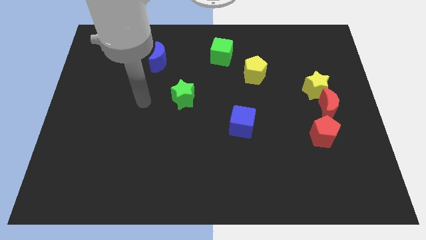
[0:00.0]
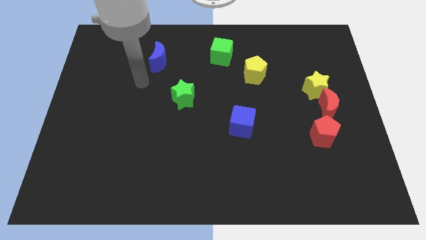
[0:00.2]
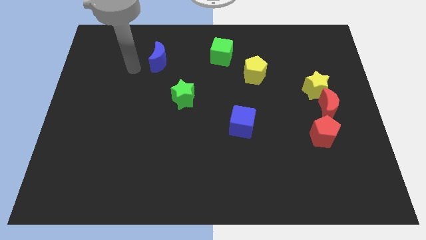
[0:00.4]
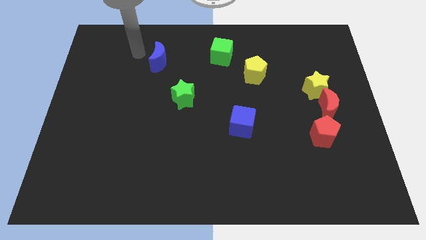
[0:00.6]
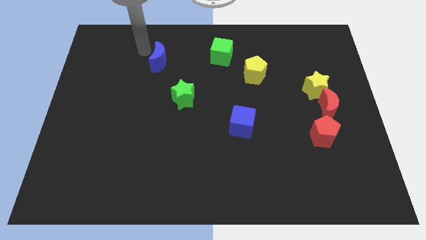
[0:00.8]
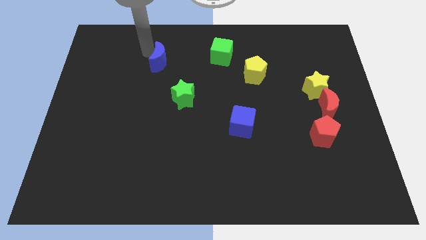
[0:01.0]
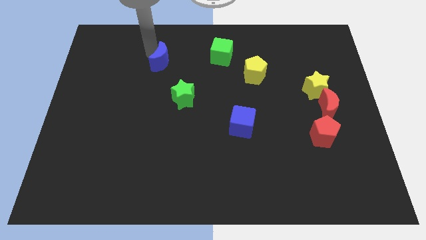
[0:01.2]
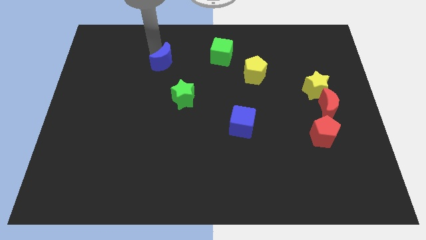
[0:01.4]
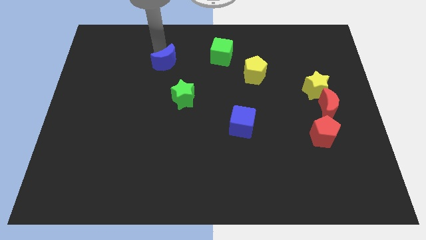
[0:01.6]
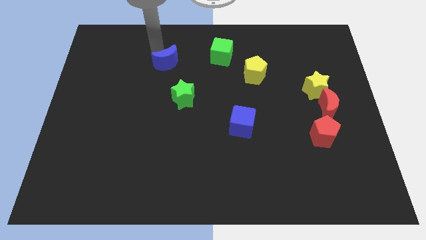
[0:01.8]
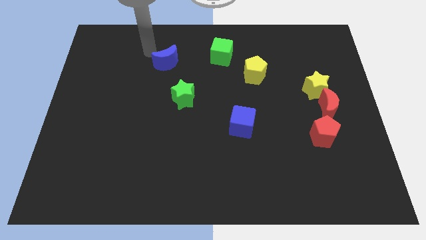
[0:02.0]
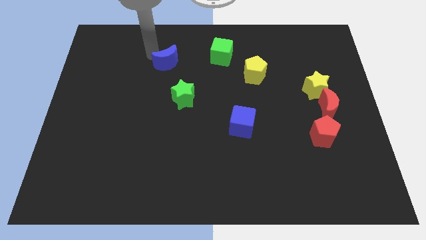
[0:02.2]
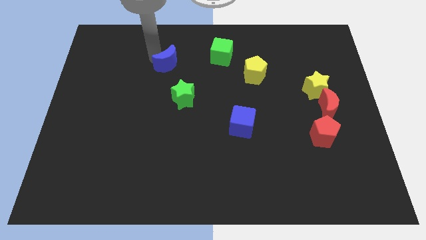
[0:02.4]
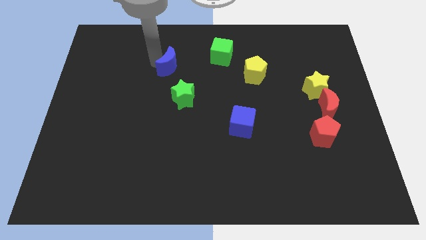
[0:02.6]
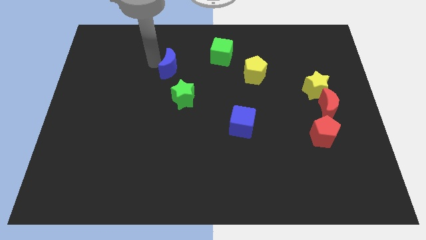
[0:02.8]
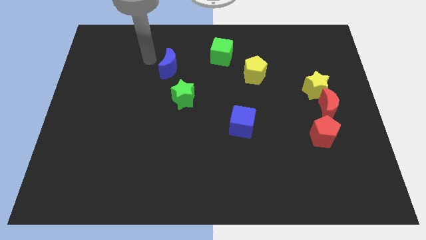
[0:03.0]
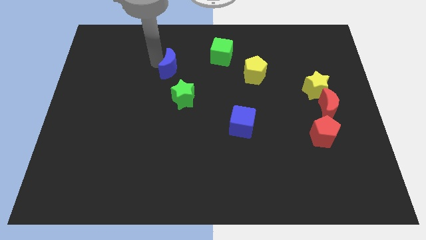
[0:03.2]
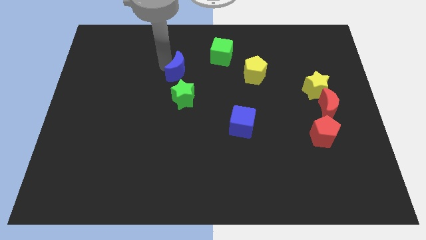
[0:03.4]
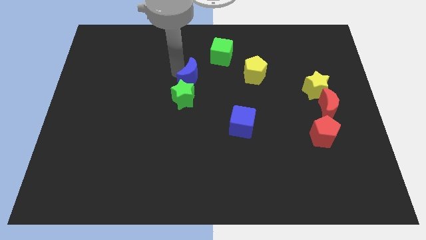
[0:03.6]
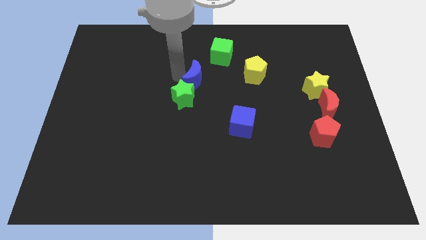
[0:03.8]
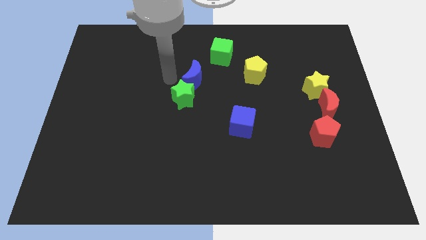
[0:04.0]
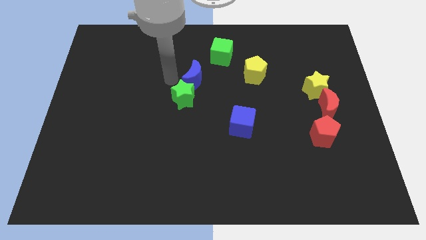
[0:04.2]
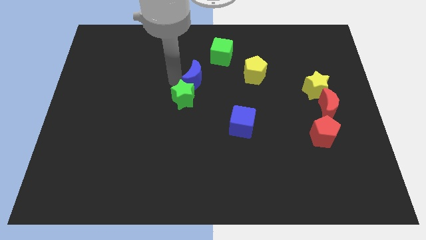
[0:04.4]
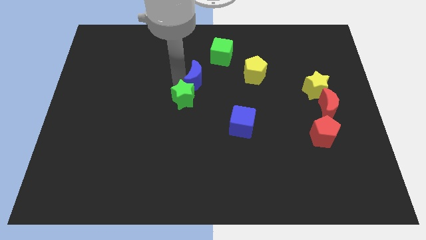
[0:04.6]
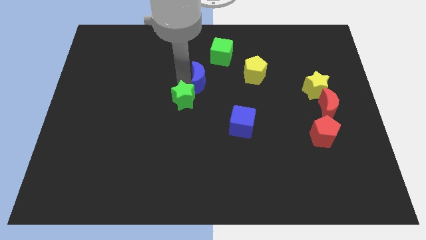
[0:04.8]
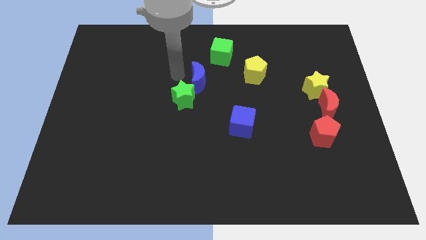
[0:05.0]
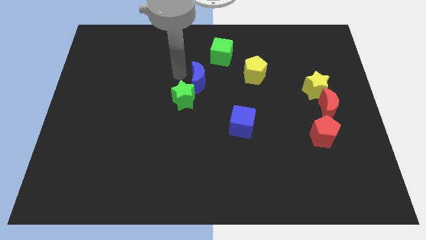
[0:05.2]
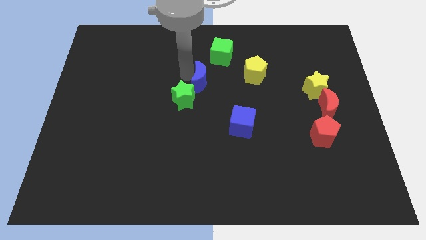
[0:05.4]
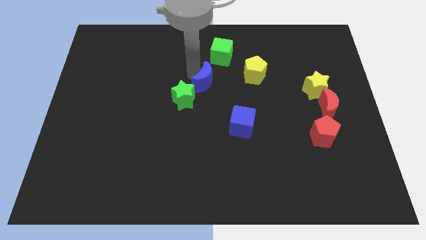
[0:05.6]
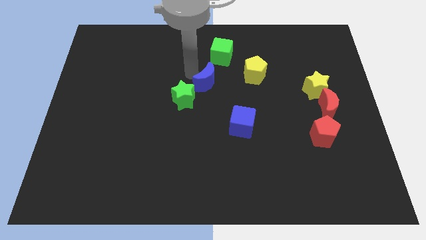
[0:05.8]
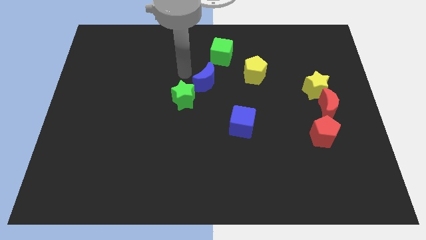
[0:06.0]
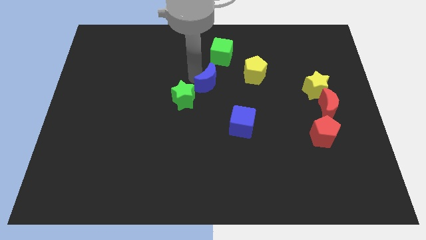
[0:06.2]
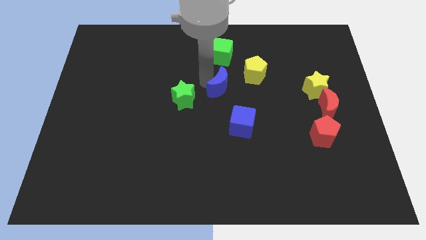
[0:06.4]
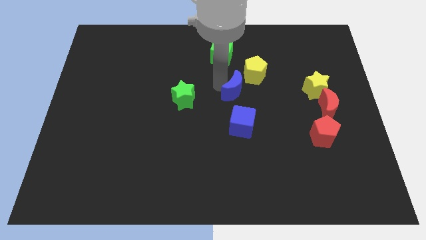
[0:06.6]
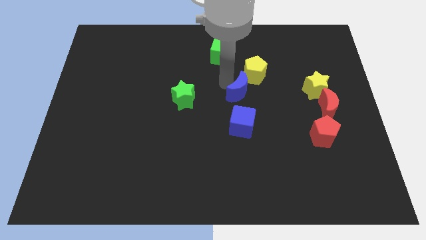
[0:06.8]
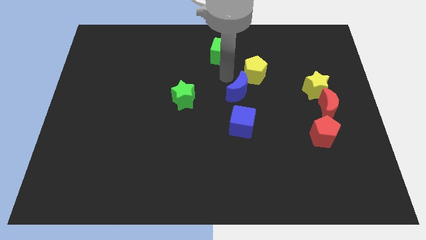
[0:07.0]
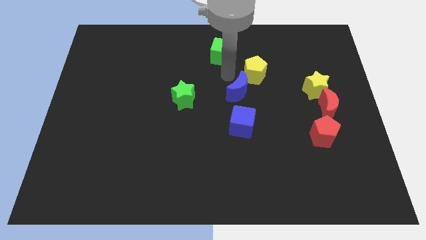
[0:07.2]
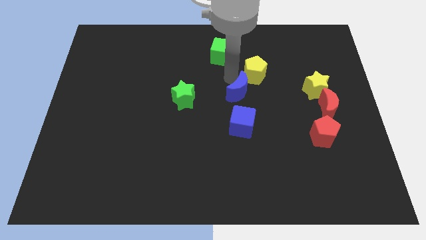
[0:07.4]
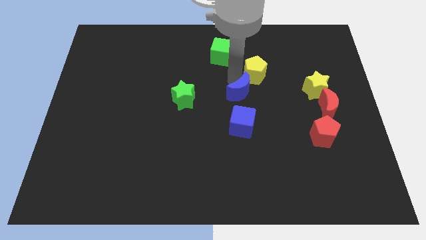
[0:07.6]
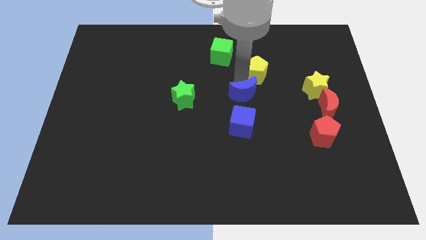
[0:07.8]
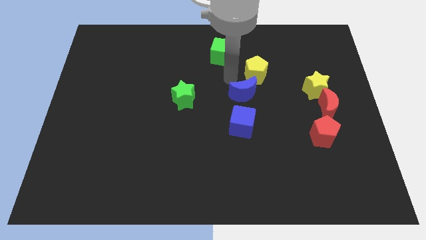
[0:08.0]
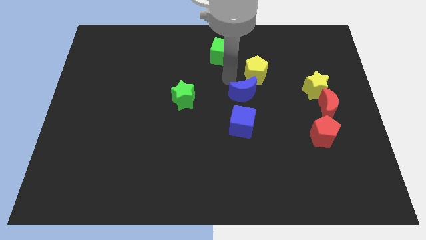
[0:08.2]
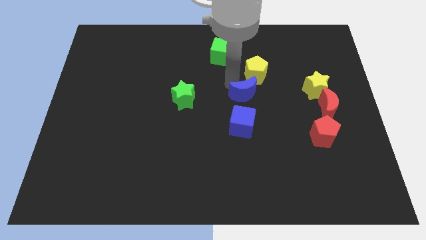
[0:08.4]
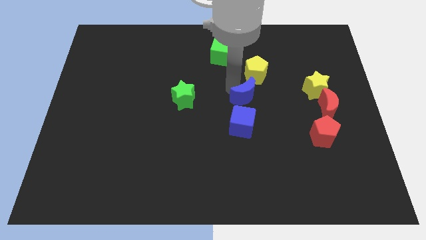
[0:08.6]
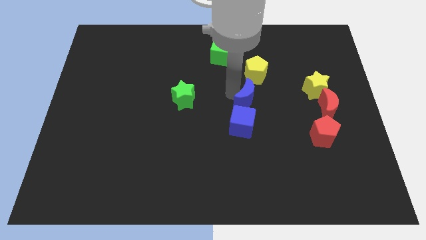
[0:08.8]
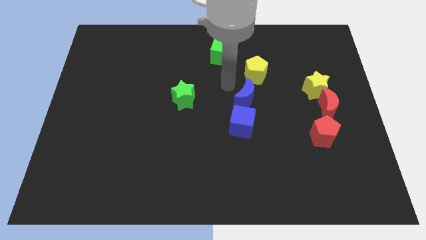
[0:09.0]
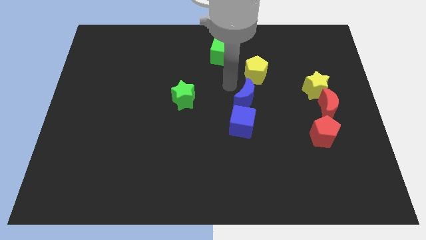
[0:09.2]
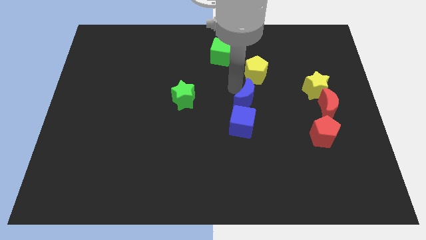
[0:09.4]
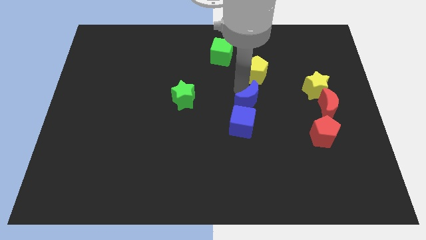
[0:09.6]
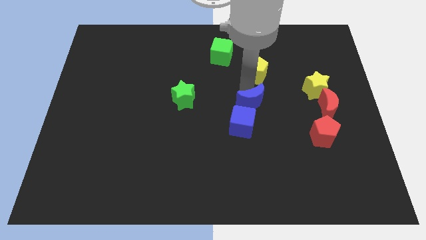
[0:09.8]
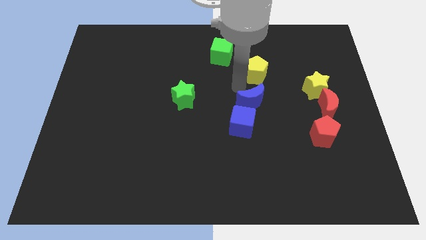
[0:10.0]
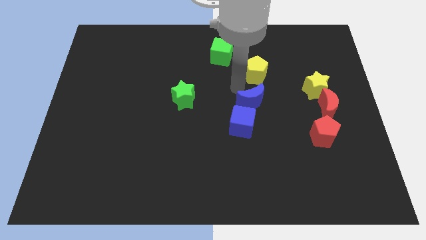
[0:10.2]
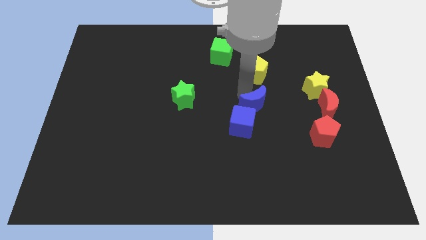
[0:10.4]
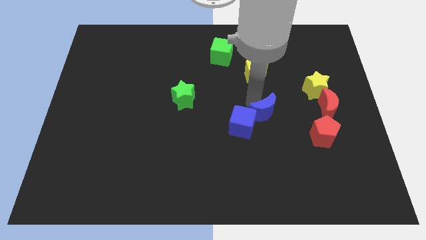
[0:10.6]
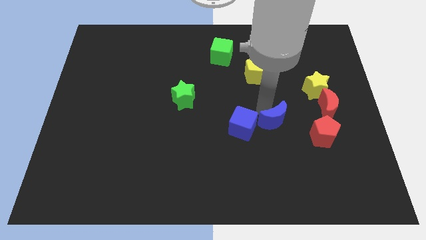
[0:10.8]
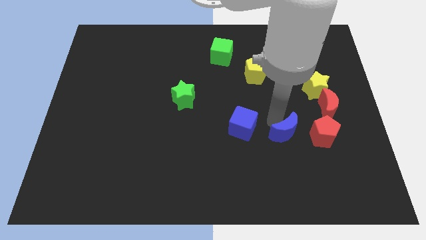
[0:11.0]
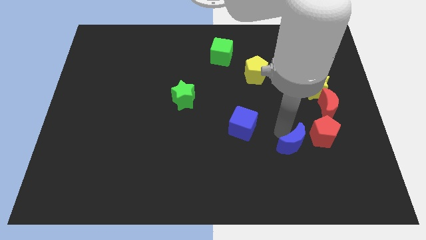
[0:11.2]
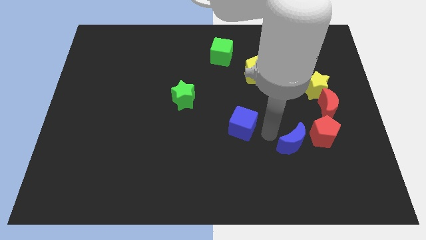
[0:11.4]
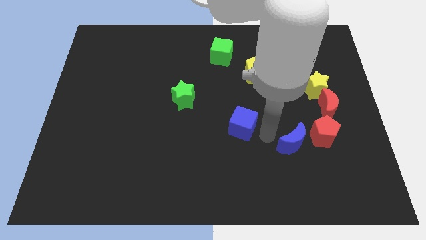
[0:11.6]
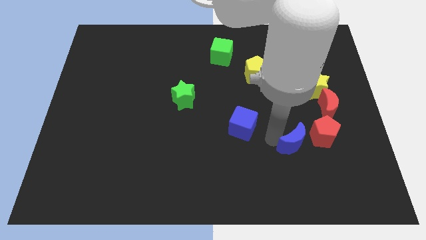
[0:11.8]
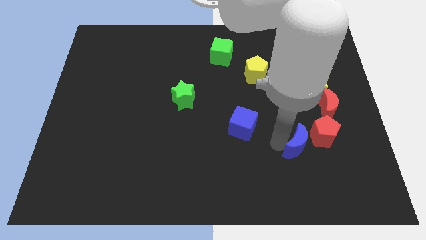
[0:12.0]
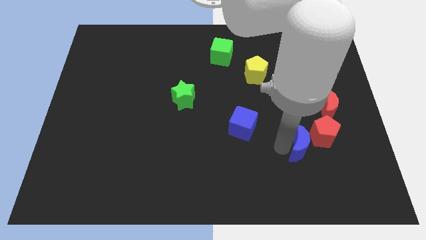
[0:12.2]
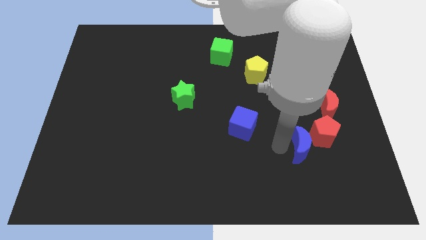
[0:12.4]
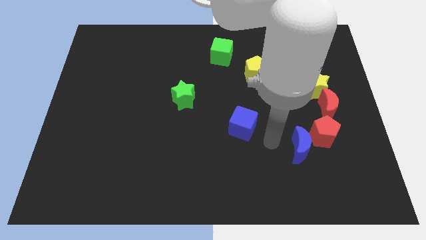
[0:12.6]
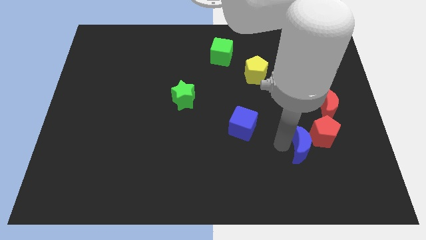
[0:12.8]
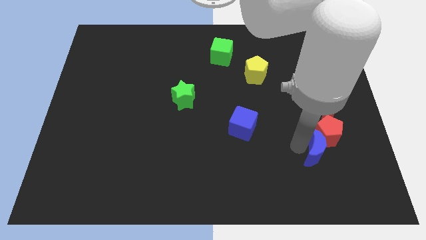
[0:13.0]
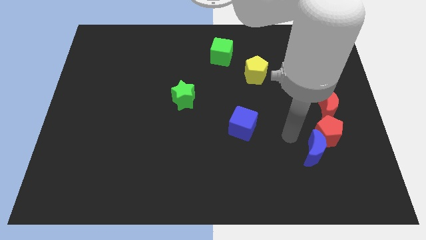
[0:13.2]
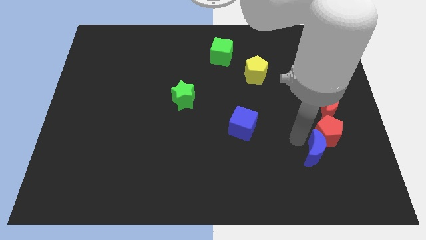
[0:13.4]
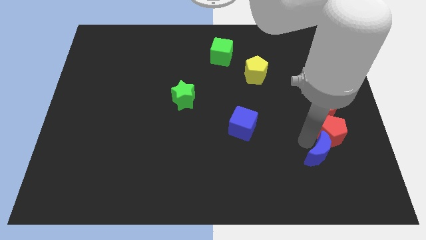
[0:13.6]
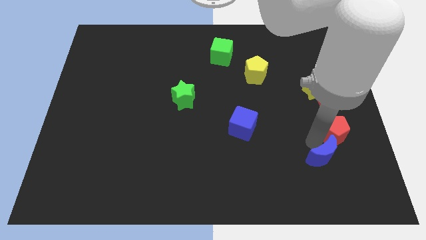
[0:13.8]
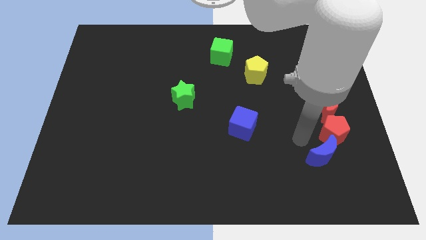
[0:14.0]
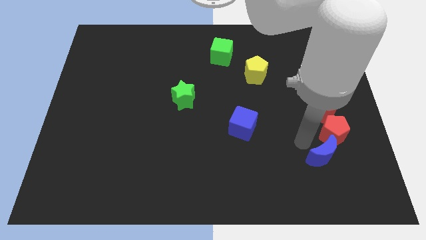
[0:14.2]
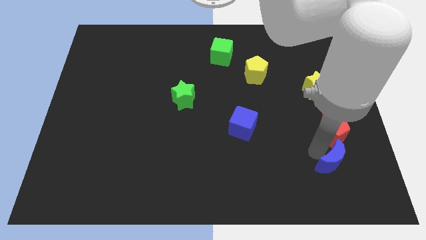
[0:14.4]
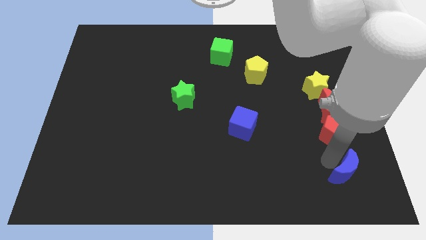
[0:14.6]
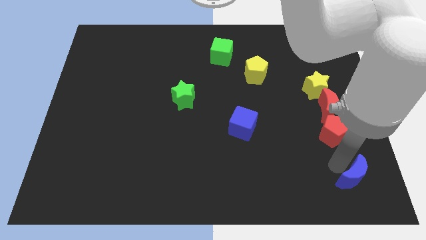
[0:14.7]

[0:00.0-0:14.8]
push the blue moon to the bottom right corner

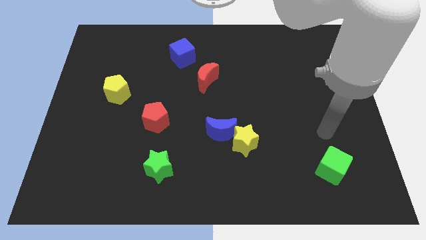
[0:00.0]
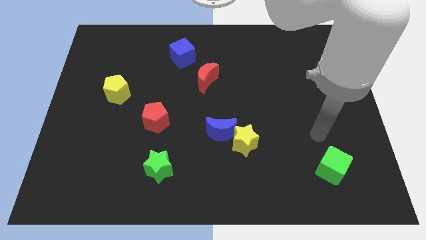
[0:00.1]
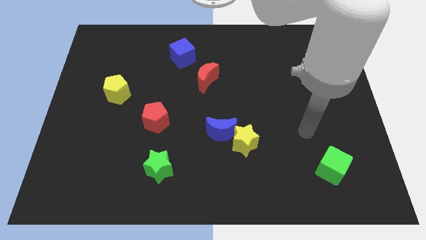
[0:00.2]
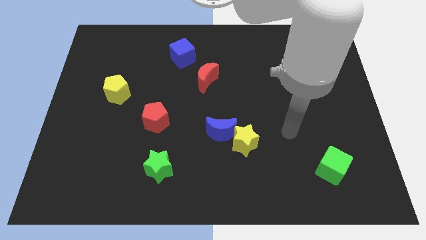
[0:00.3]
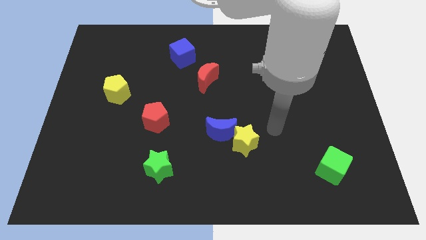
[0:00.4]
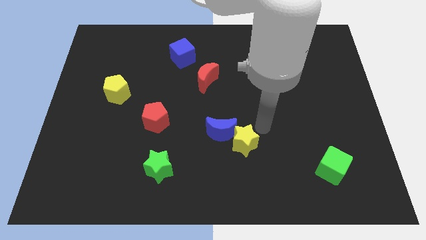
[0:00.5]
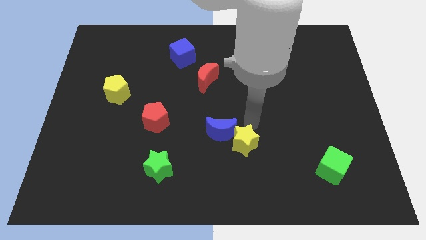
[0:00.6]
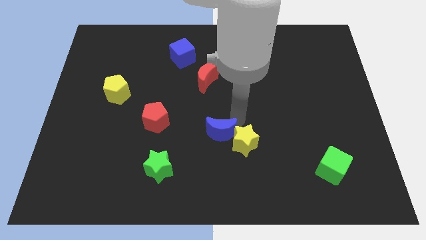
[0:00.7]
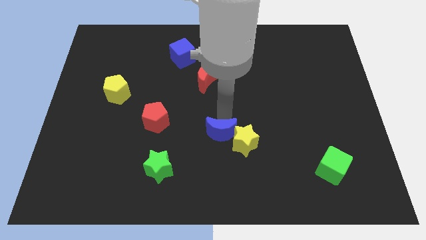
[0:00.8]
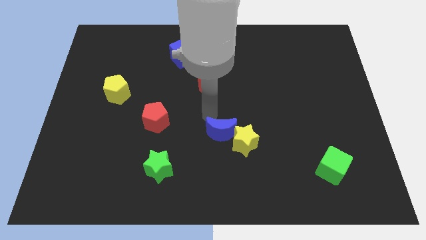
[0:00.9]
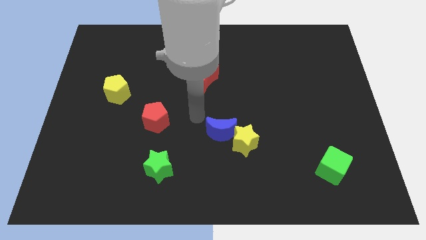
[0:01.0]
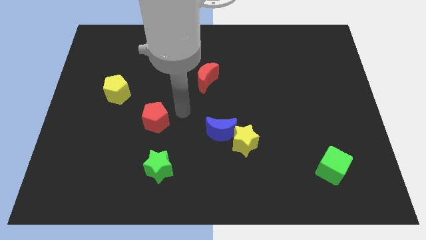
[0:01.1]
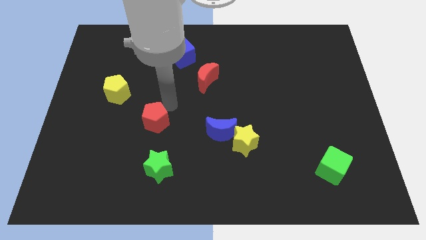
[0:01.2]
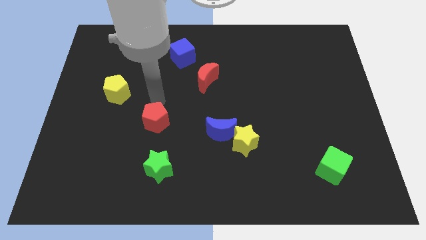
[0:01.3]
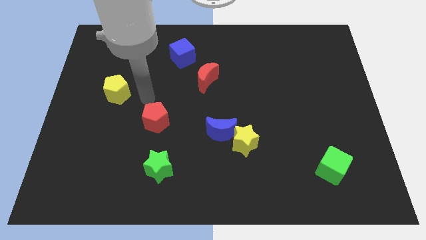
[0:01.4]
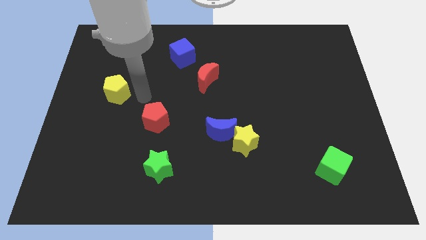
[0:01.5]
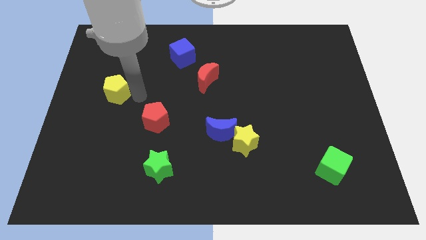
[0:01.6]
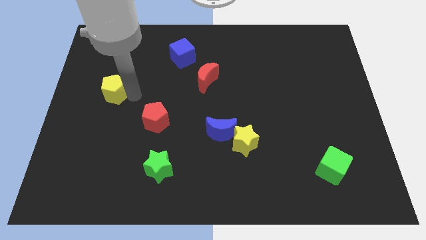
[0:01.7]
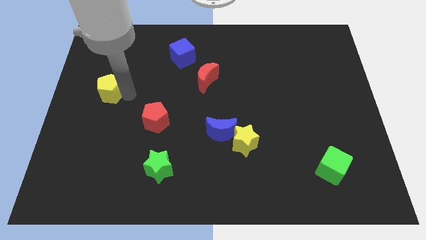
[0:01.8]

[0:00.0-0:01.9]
move the yellow pentagon to the left side of the board
